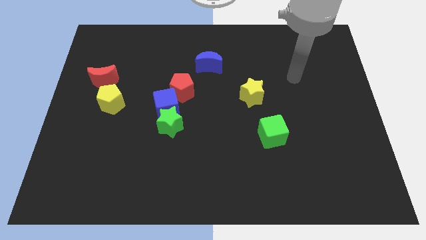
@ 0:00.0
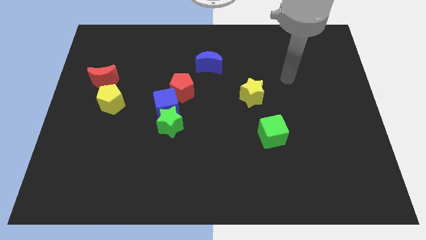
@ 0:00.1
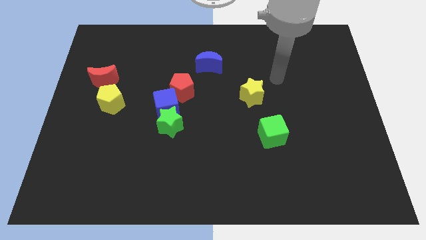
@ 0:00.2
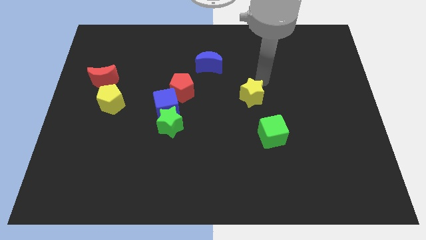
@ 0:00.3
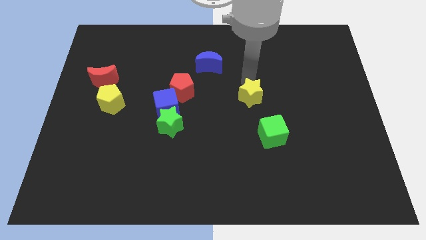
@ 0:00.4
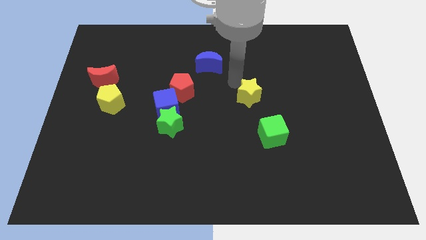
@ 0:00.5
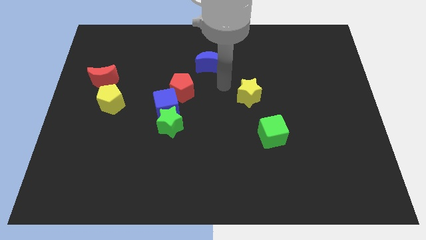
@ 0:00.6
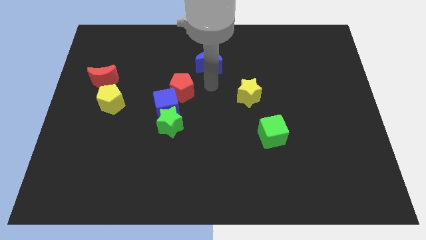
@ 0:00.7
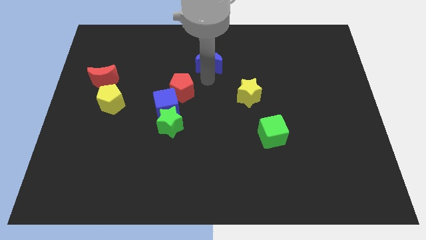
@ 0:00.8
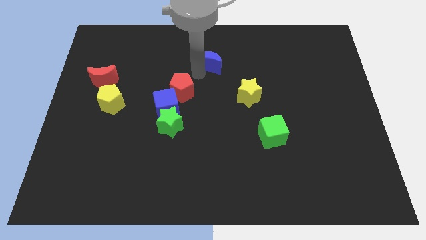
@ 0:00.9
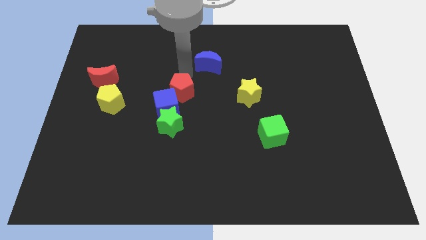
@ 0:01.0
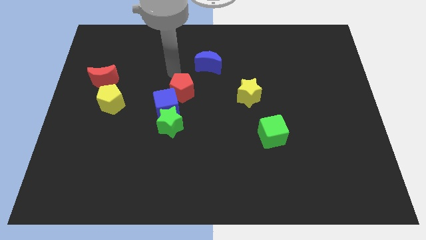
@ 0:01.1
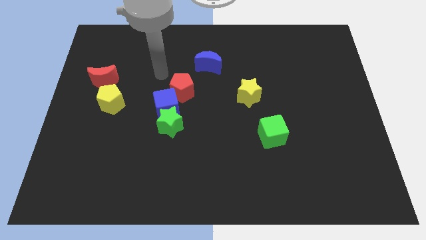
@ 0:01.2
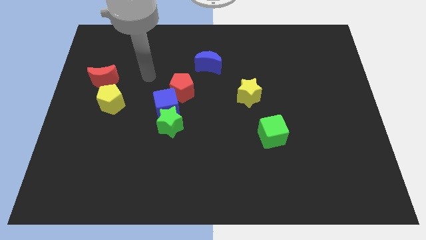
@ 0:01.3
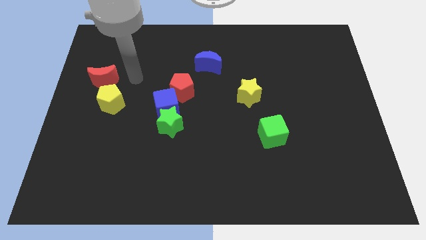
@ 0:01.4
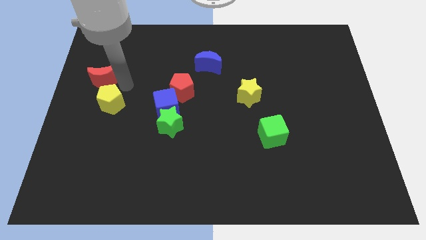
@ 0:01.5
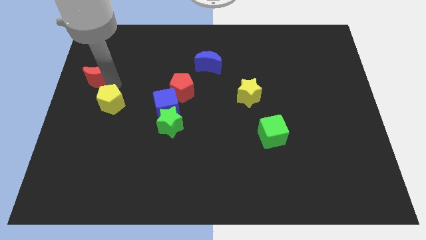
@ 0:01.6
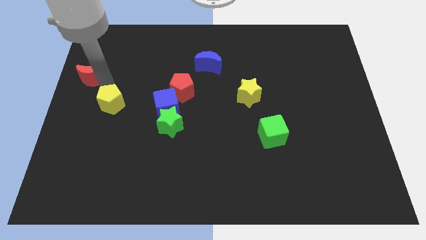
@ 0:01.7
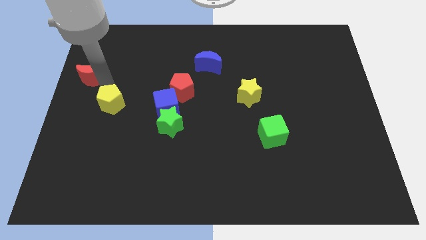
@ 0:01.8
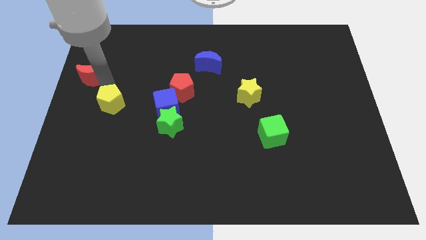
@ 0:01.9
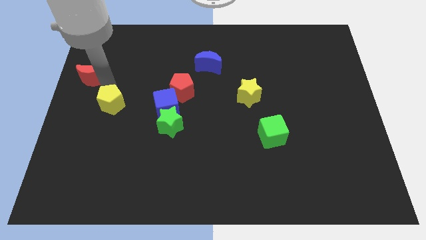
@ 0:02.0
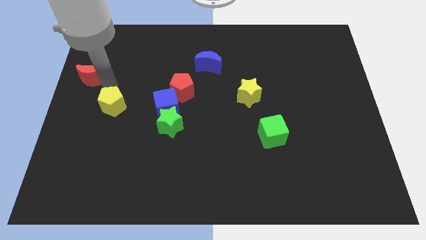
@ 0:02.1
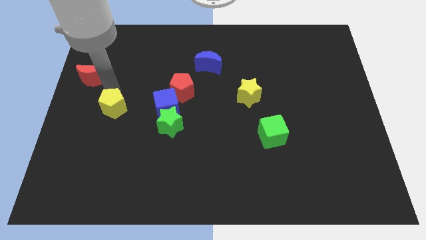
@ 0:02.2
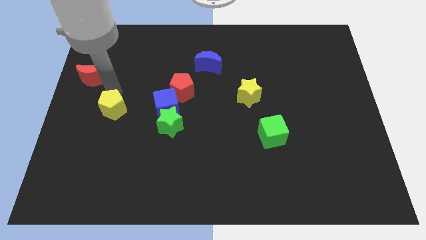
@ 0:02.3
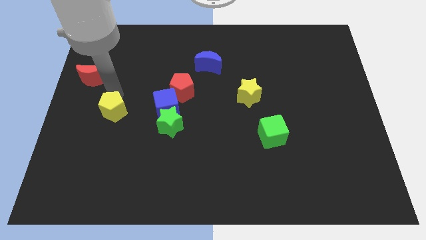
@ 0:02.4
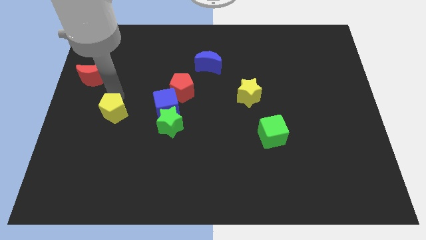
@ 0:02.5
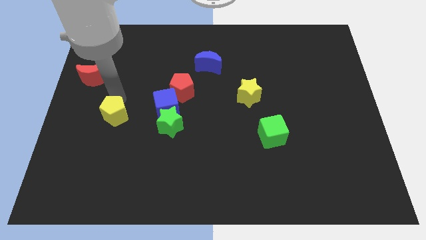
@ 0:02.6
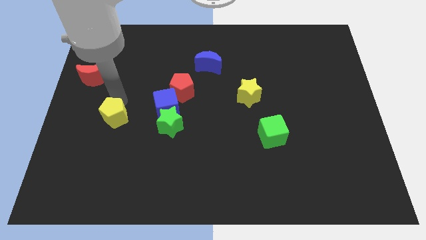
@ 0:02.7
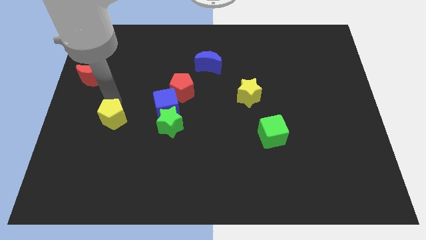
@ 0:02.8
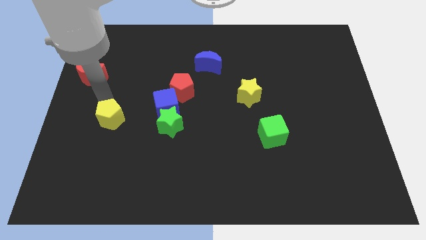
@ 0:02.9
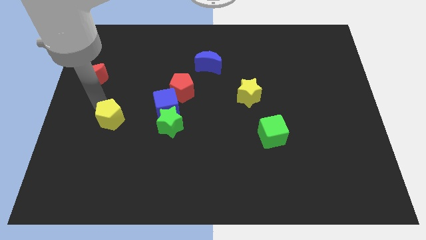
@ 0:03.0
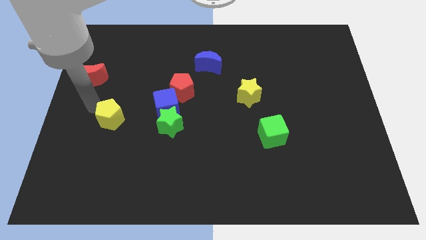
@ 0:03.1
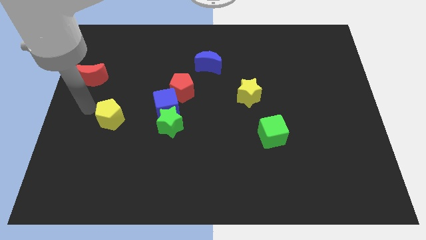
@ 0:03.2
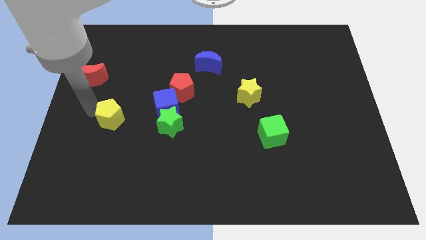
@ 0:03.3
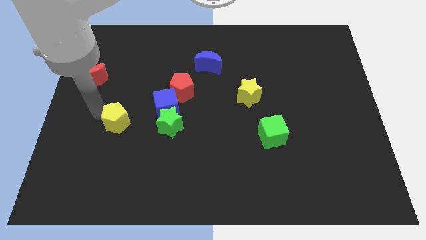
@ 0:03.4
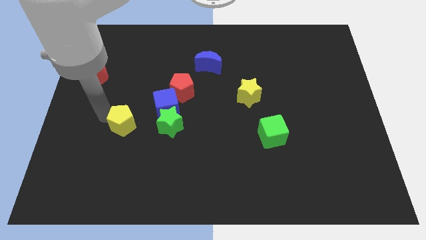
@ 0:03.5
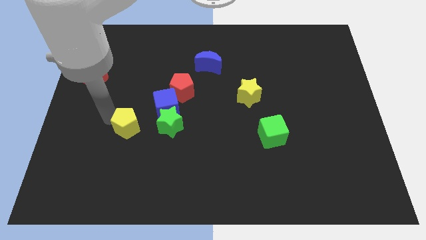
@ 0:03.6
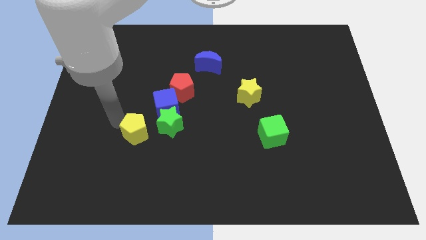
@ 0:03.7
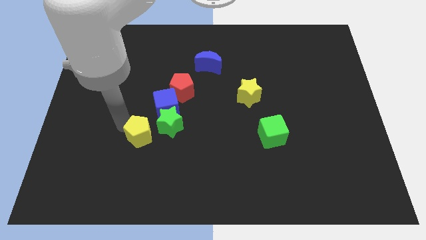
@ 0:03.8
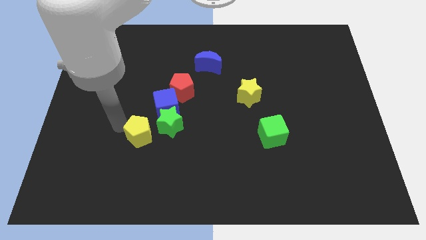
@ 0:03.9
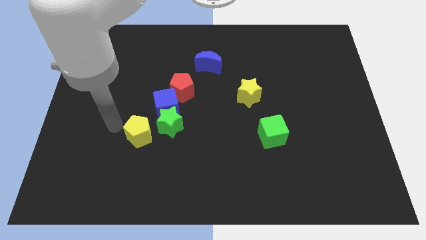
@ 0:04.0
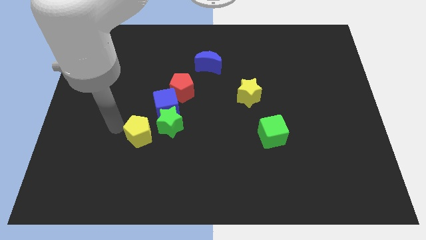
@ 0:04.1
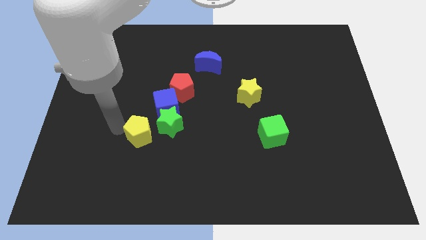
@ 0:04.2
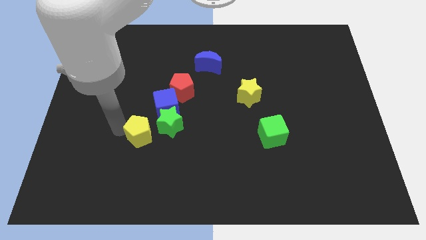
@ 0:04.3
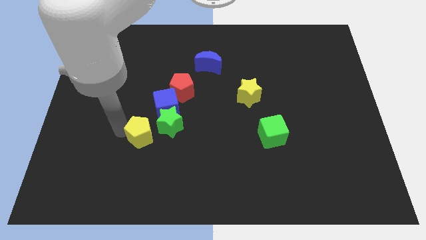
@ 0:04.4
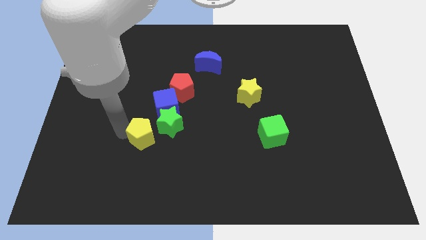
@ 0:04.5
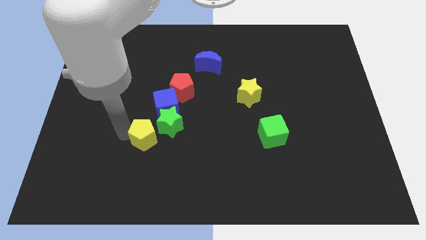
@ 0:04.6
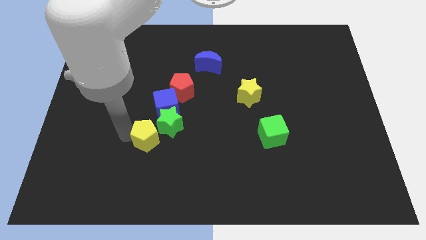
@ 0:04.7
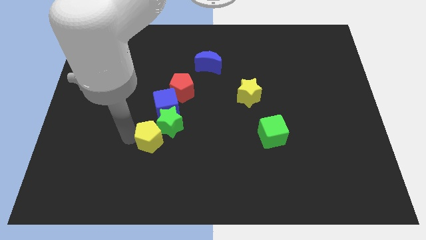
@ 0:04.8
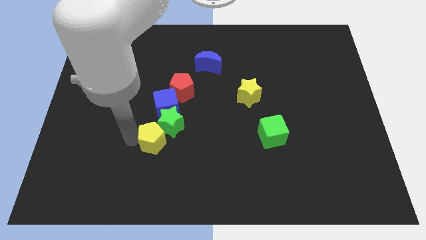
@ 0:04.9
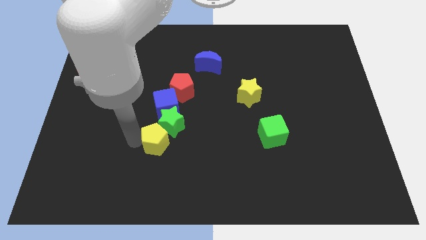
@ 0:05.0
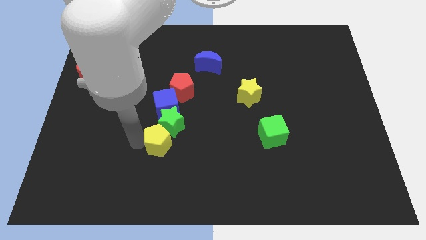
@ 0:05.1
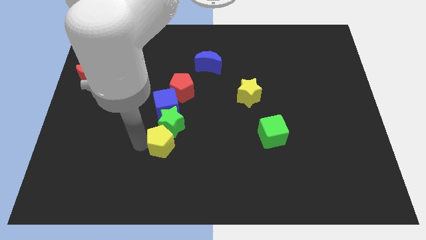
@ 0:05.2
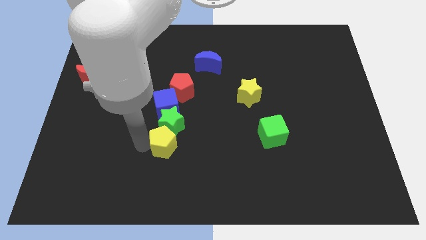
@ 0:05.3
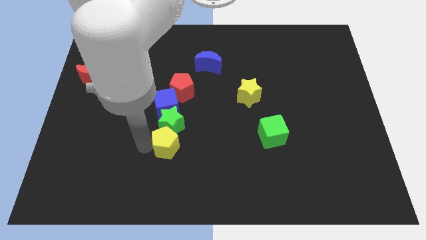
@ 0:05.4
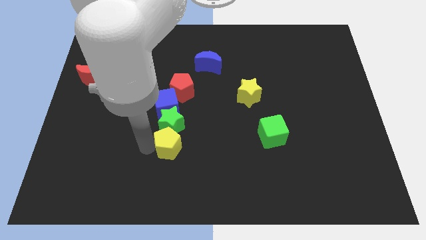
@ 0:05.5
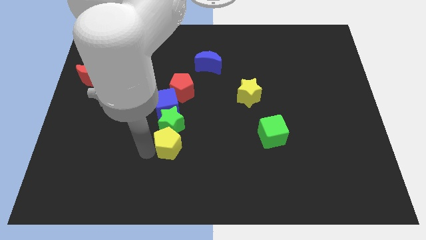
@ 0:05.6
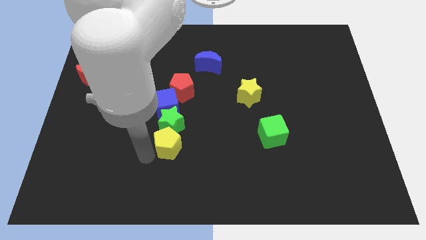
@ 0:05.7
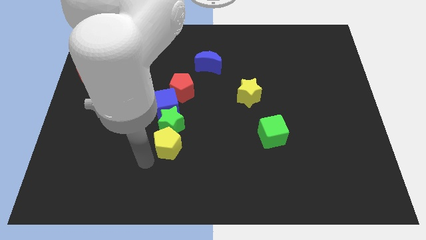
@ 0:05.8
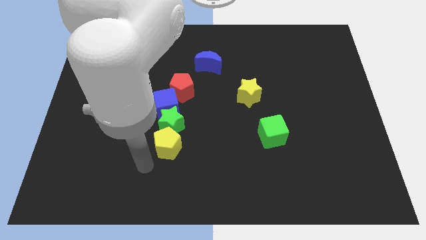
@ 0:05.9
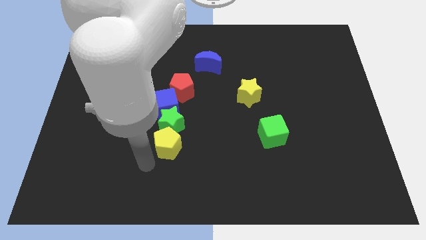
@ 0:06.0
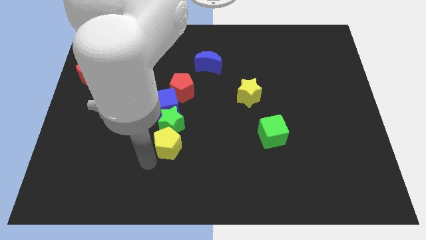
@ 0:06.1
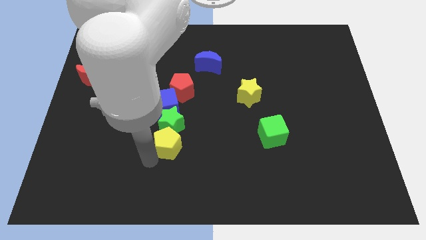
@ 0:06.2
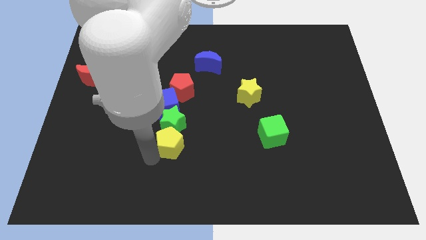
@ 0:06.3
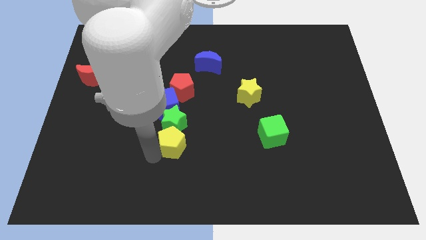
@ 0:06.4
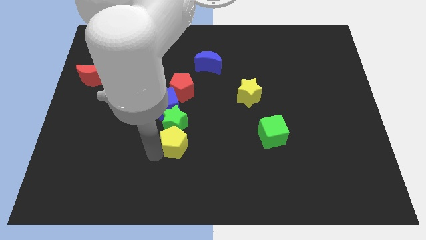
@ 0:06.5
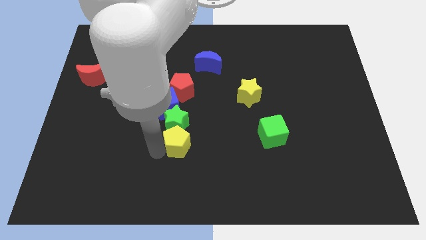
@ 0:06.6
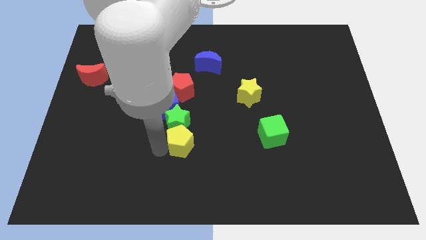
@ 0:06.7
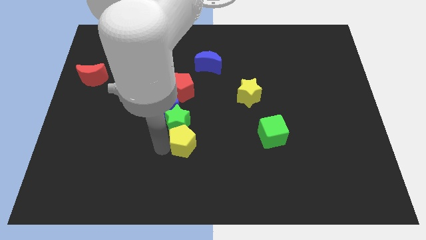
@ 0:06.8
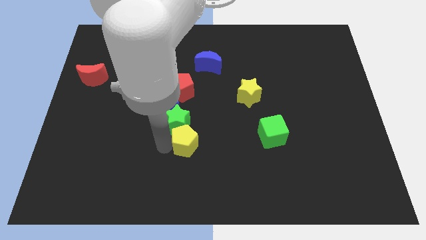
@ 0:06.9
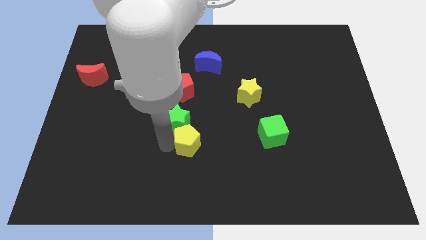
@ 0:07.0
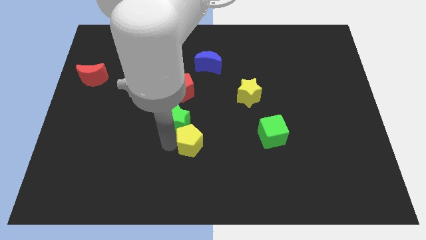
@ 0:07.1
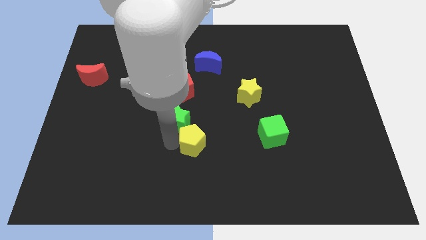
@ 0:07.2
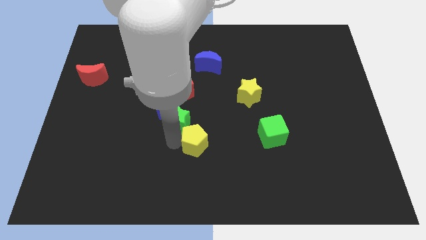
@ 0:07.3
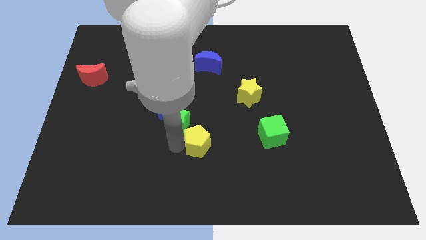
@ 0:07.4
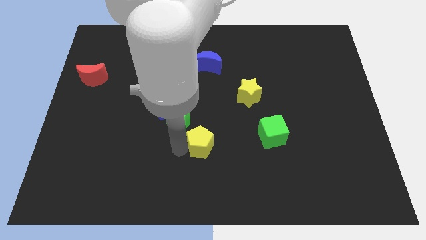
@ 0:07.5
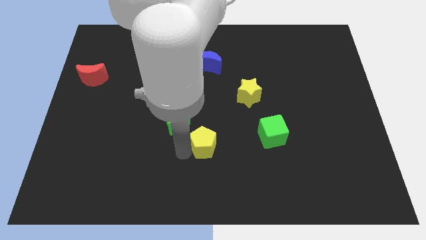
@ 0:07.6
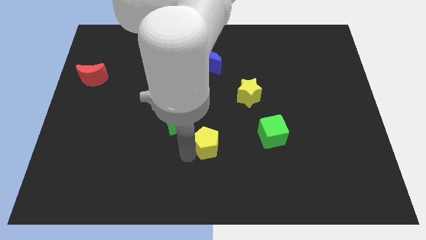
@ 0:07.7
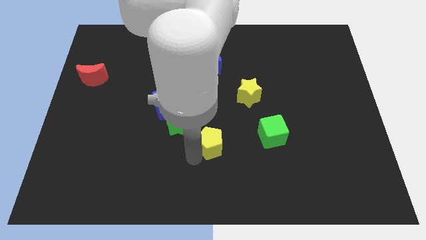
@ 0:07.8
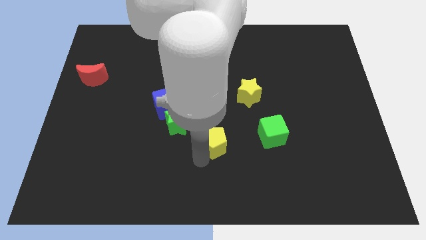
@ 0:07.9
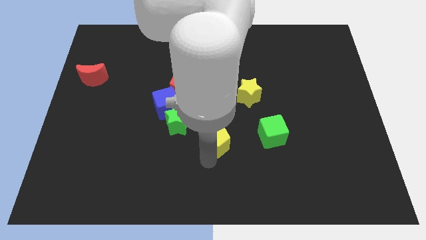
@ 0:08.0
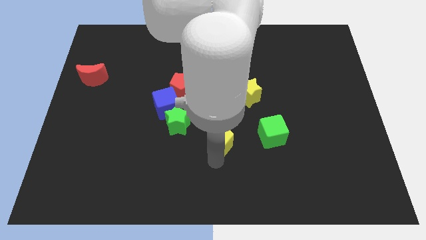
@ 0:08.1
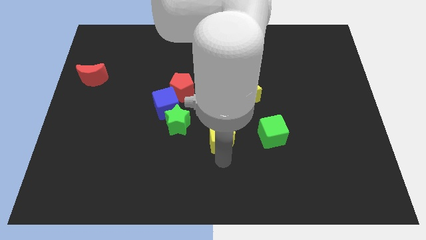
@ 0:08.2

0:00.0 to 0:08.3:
slide the yellow pentagon right of the green star
